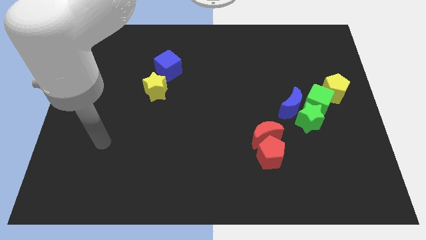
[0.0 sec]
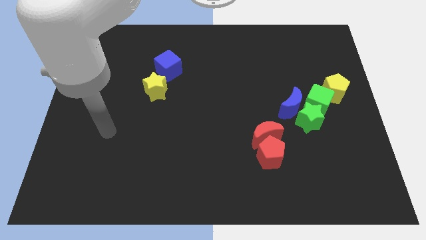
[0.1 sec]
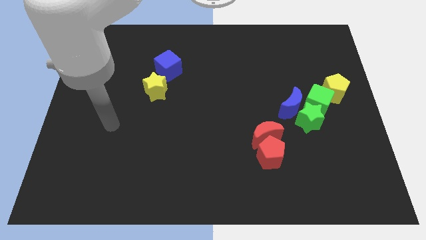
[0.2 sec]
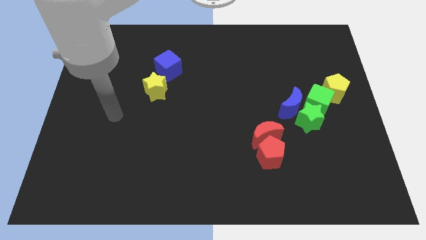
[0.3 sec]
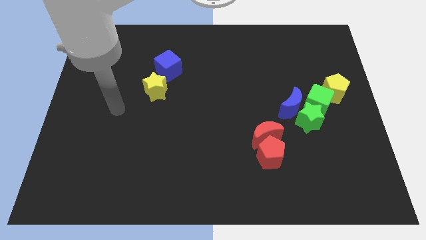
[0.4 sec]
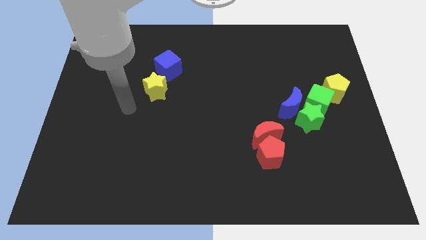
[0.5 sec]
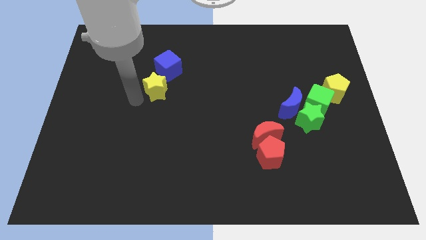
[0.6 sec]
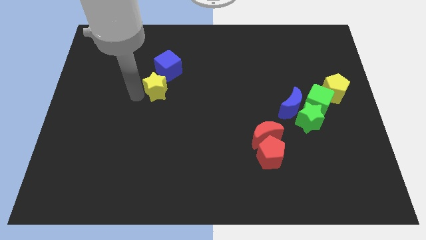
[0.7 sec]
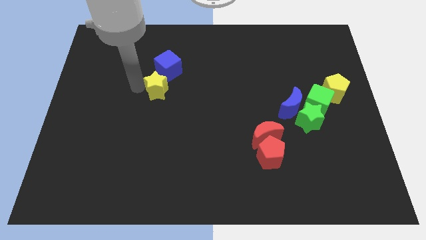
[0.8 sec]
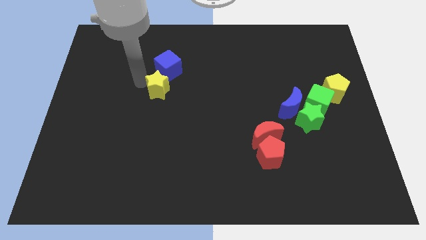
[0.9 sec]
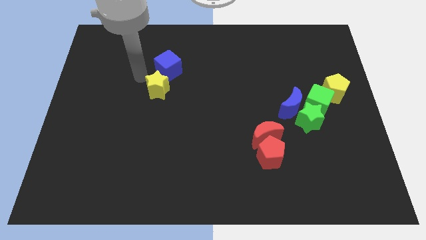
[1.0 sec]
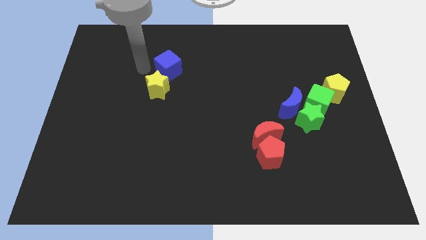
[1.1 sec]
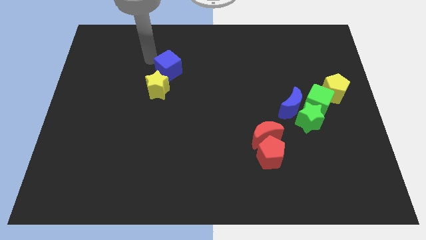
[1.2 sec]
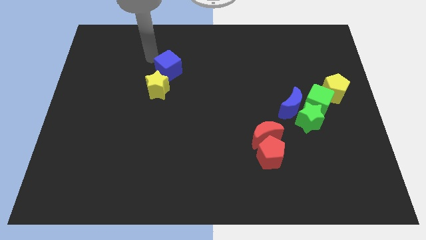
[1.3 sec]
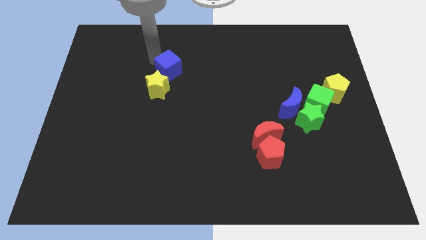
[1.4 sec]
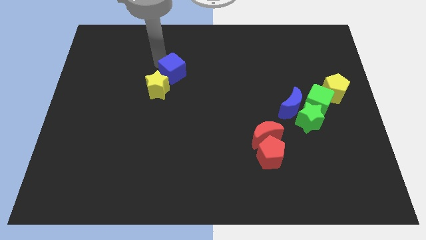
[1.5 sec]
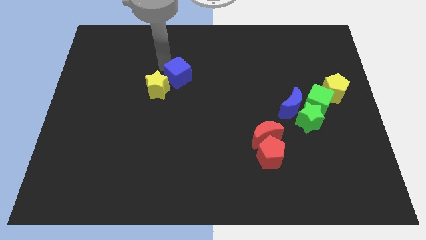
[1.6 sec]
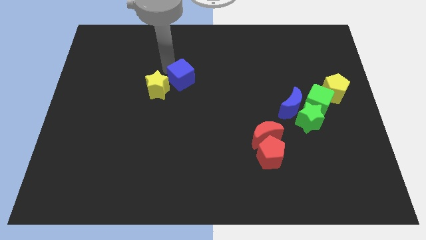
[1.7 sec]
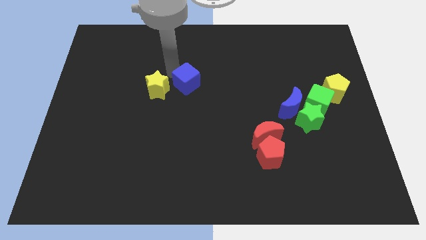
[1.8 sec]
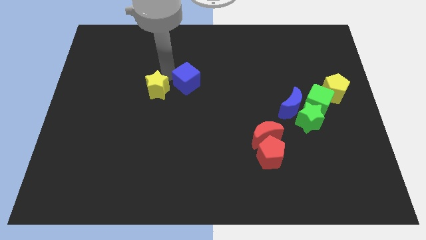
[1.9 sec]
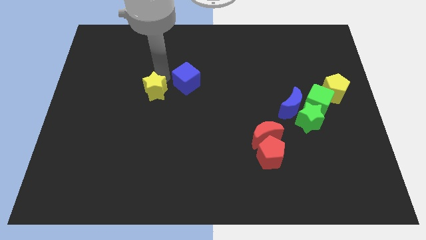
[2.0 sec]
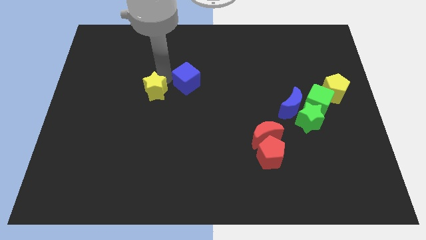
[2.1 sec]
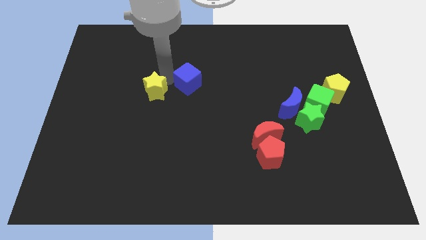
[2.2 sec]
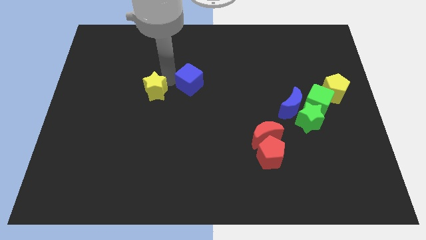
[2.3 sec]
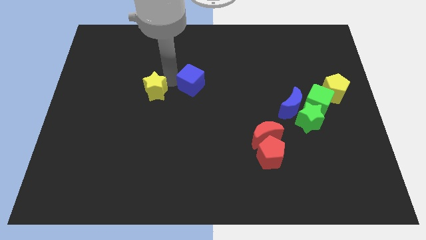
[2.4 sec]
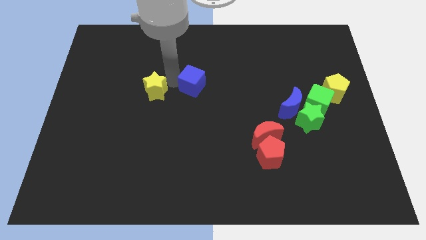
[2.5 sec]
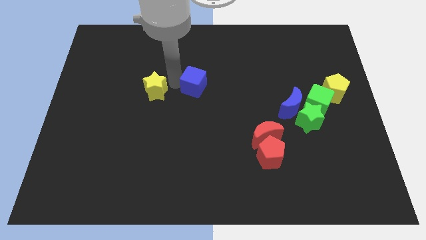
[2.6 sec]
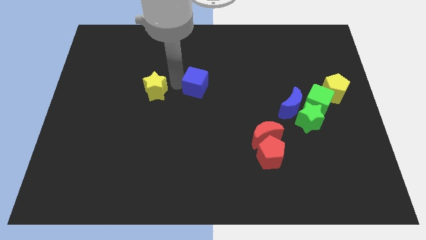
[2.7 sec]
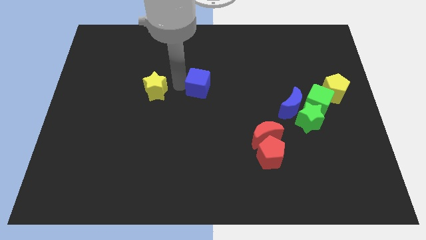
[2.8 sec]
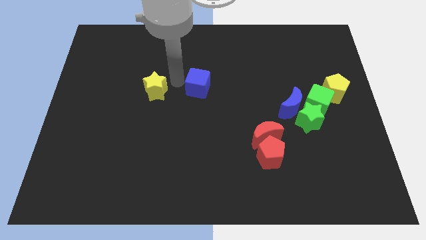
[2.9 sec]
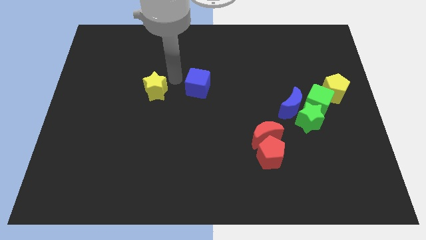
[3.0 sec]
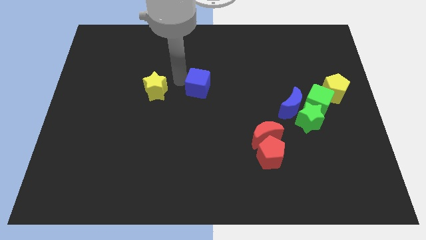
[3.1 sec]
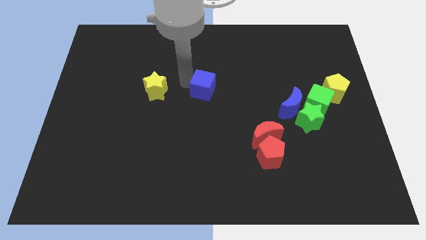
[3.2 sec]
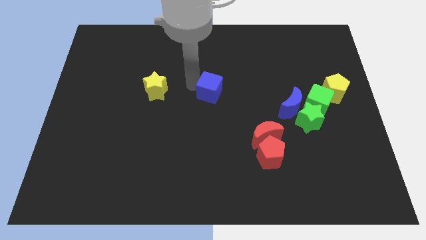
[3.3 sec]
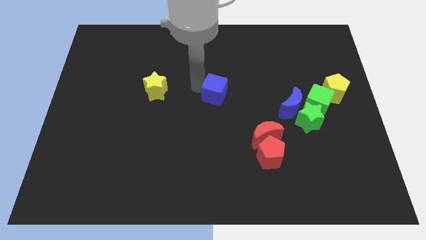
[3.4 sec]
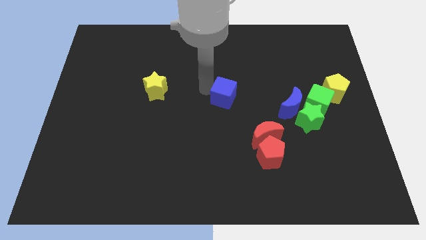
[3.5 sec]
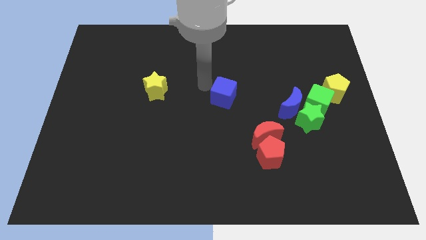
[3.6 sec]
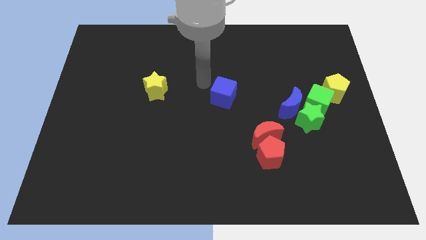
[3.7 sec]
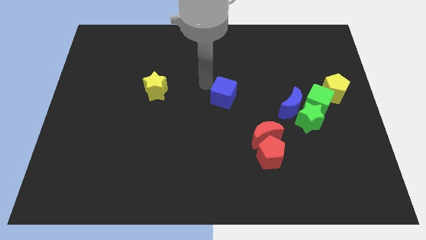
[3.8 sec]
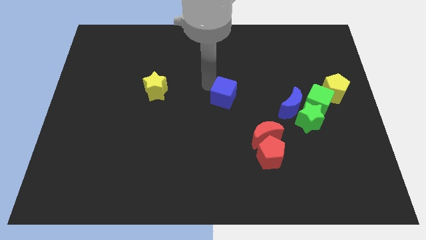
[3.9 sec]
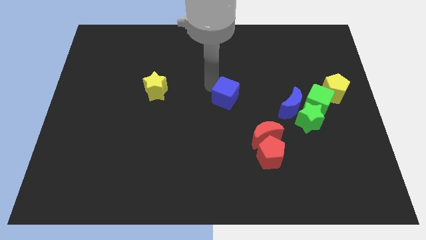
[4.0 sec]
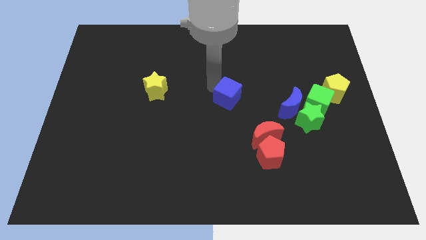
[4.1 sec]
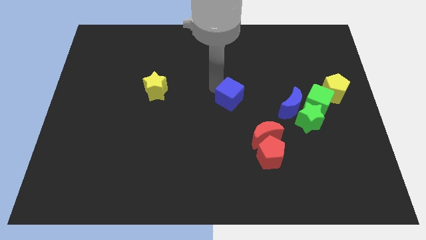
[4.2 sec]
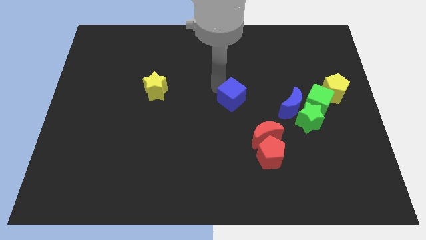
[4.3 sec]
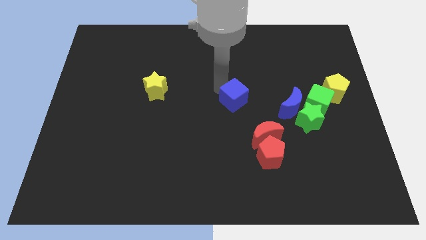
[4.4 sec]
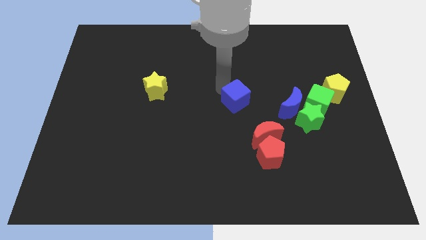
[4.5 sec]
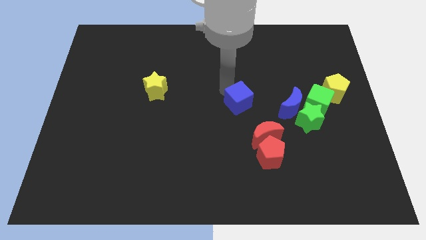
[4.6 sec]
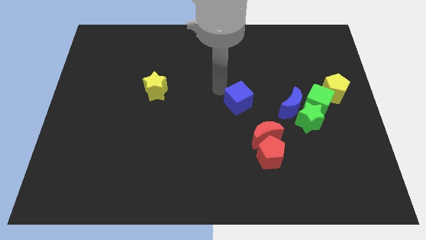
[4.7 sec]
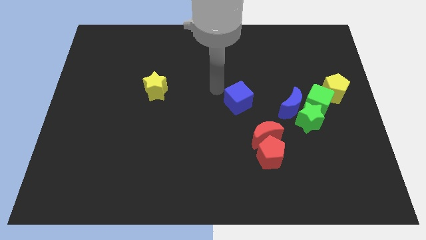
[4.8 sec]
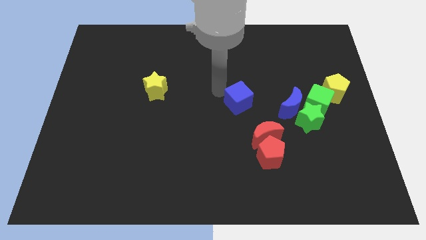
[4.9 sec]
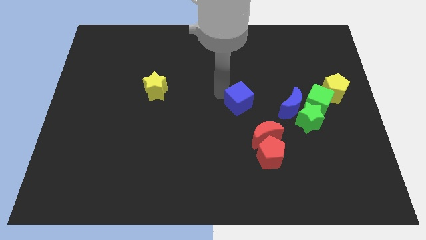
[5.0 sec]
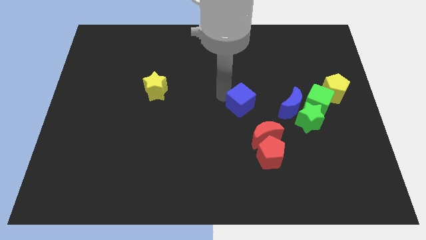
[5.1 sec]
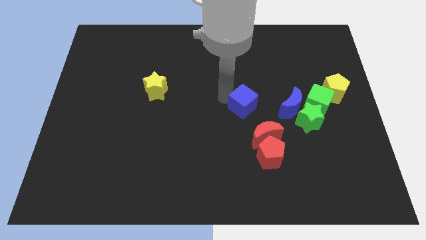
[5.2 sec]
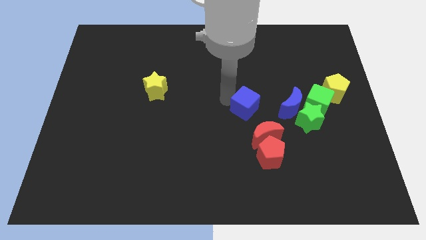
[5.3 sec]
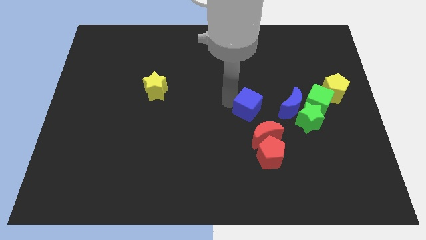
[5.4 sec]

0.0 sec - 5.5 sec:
slide the blue cube to the top side of the red pentagon

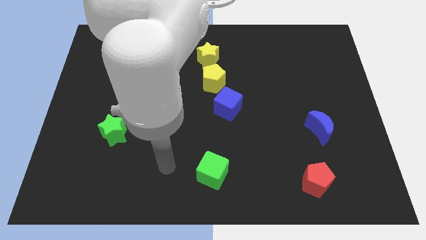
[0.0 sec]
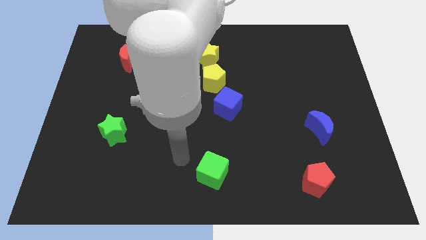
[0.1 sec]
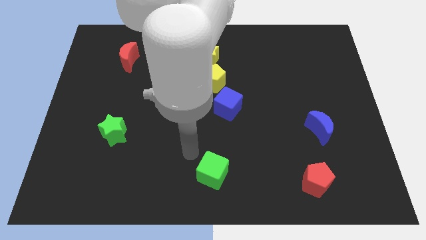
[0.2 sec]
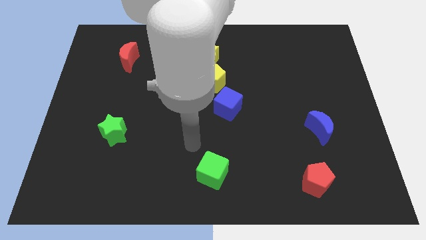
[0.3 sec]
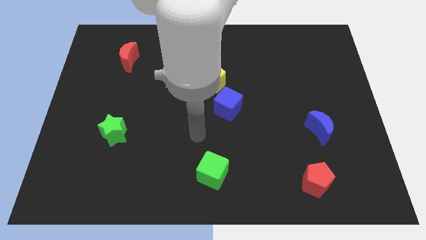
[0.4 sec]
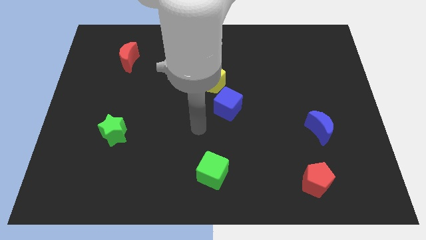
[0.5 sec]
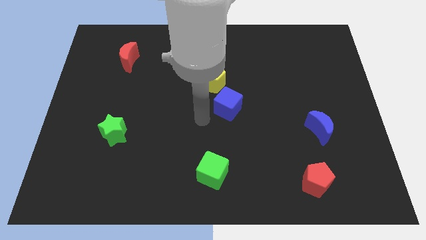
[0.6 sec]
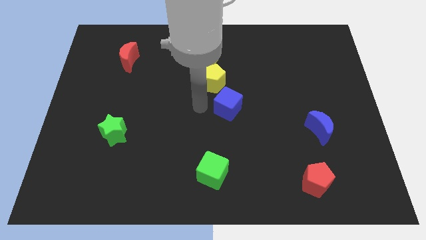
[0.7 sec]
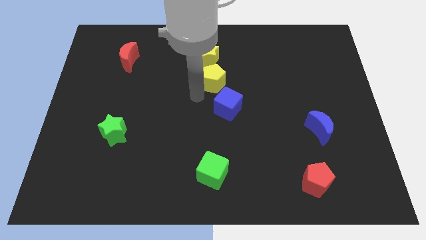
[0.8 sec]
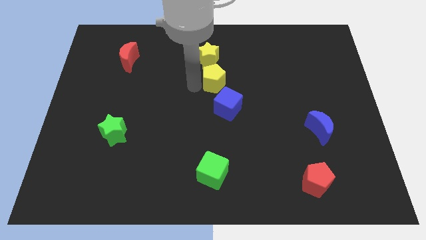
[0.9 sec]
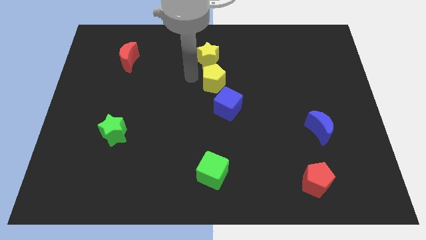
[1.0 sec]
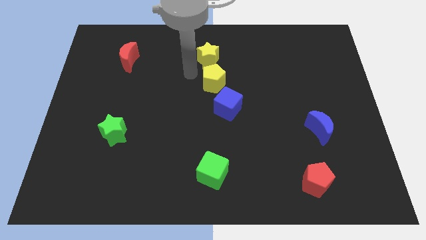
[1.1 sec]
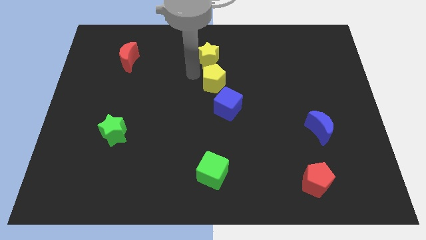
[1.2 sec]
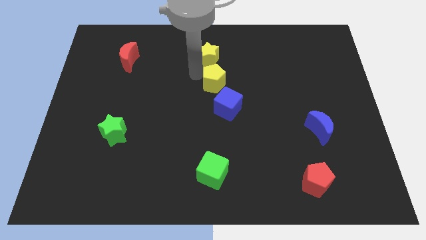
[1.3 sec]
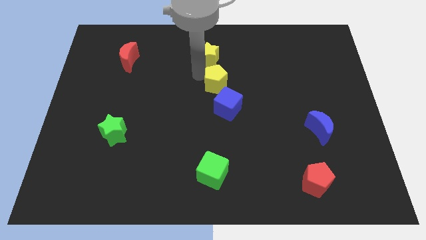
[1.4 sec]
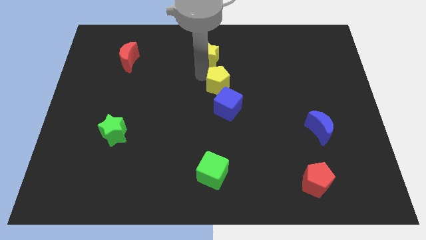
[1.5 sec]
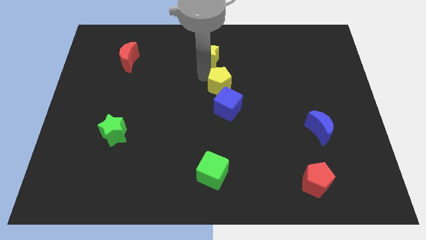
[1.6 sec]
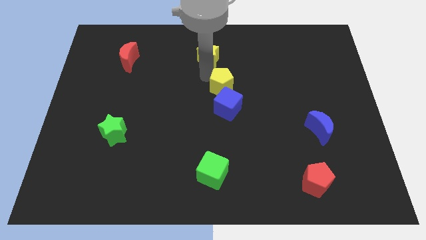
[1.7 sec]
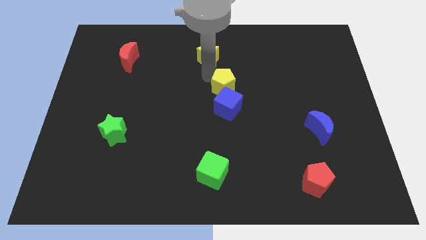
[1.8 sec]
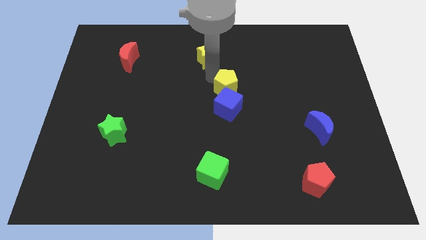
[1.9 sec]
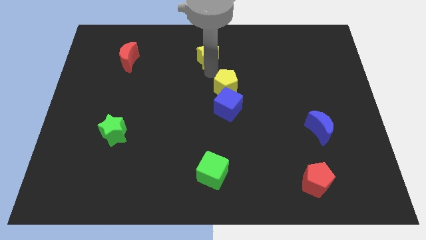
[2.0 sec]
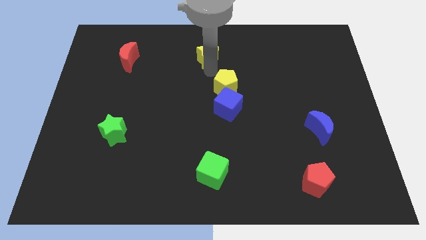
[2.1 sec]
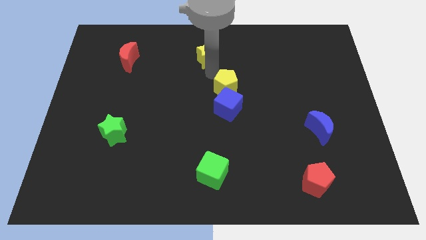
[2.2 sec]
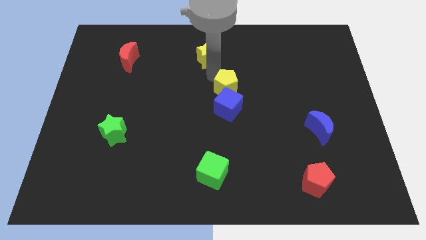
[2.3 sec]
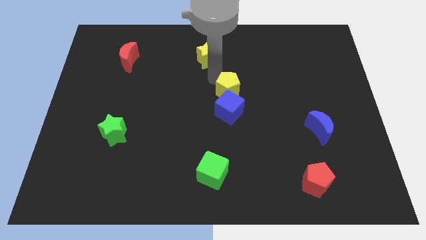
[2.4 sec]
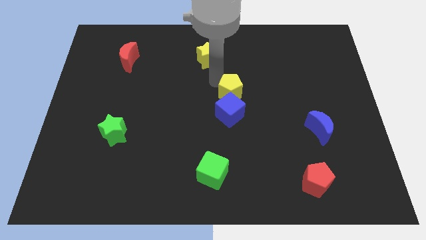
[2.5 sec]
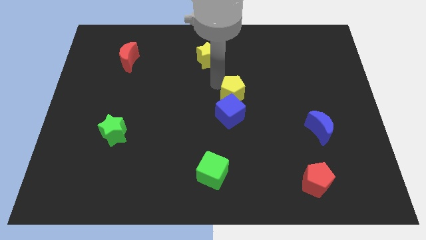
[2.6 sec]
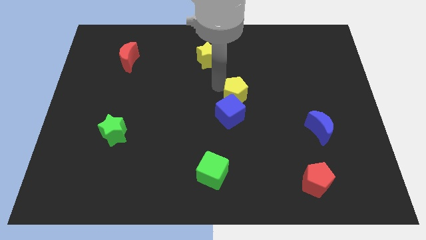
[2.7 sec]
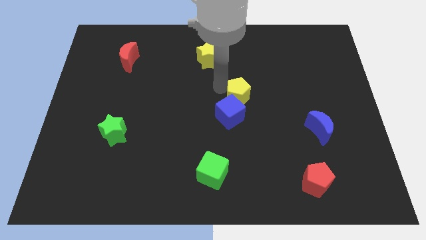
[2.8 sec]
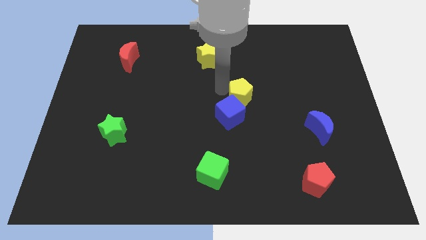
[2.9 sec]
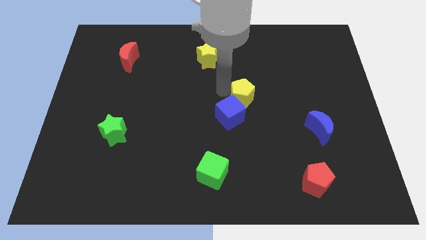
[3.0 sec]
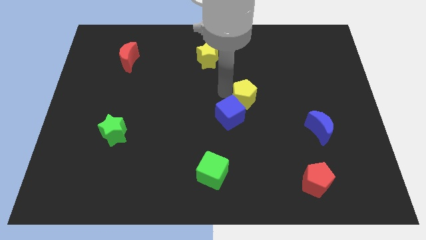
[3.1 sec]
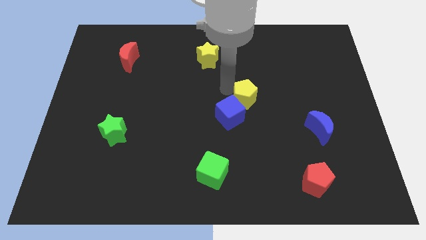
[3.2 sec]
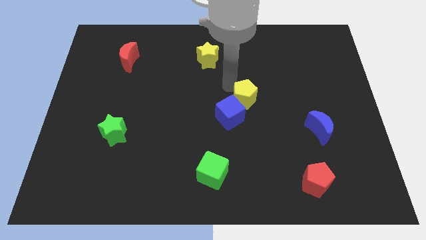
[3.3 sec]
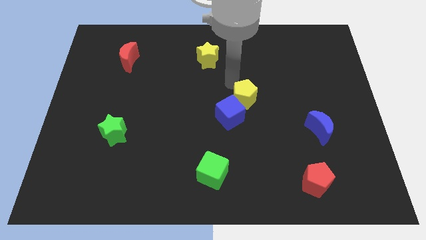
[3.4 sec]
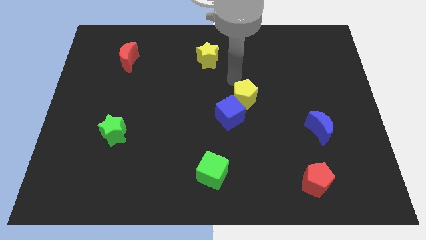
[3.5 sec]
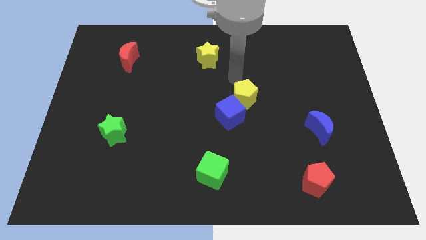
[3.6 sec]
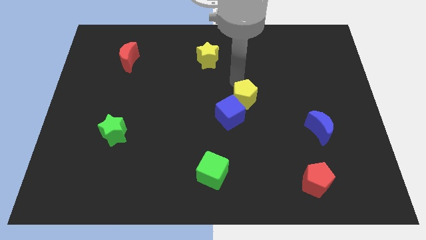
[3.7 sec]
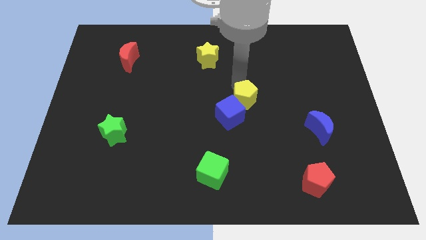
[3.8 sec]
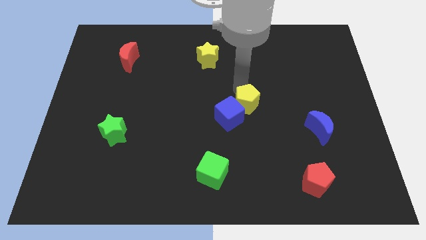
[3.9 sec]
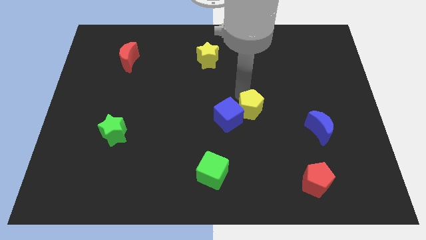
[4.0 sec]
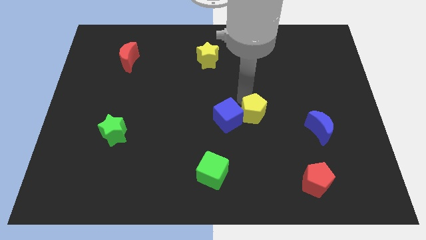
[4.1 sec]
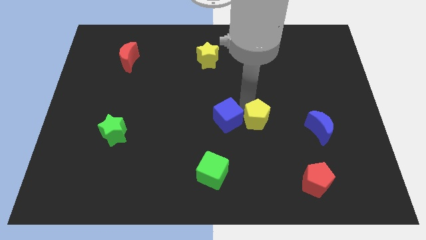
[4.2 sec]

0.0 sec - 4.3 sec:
push the yellow pentagon just left of the blue moon
